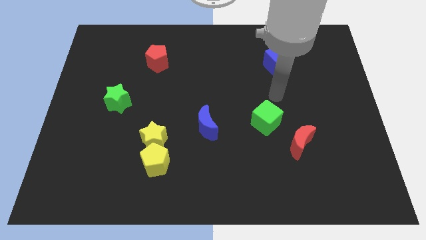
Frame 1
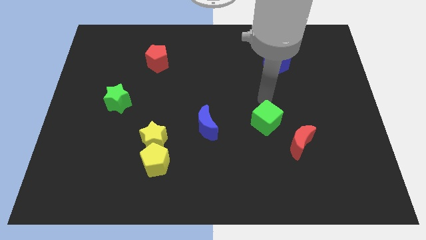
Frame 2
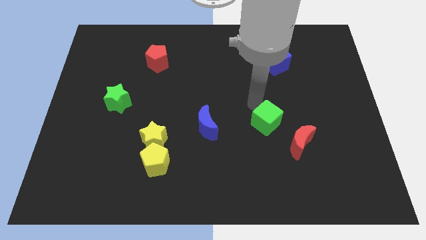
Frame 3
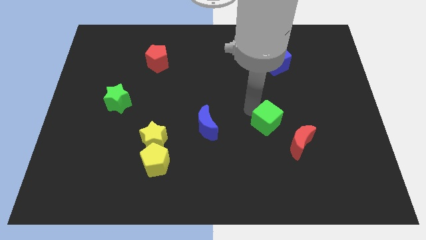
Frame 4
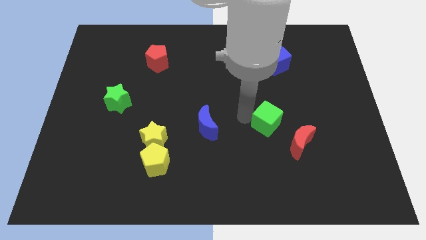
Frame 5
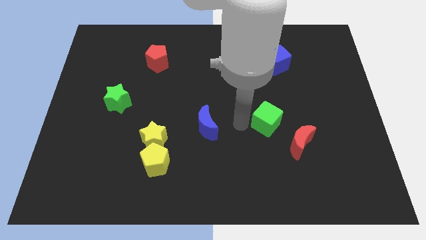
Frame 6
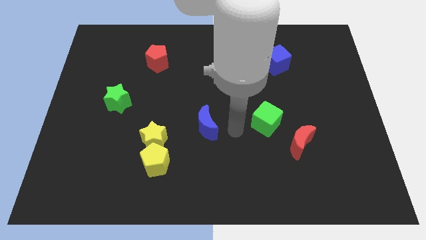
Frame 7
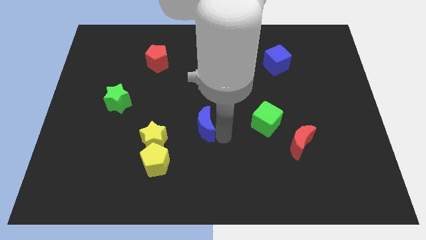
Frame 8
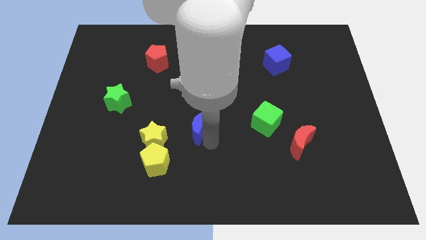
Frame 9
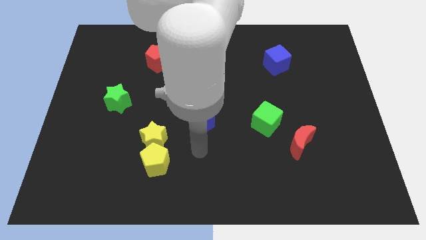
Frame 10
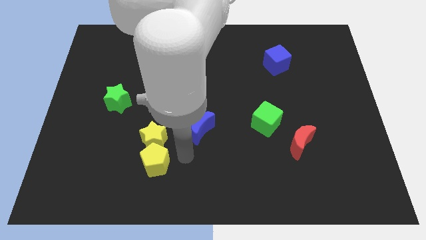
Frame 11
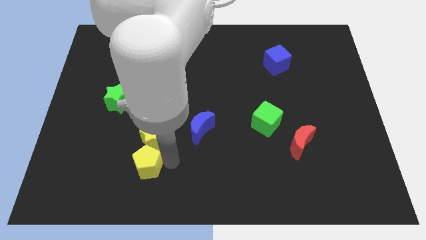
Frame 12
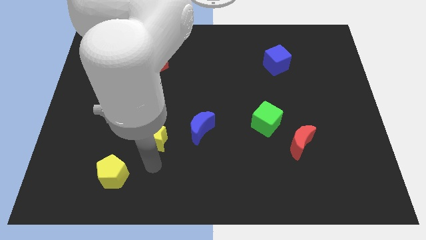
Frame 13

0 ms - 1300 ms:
pull the yellow star apart from the yellow pentagon

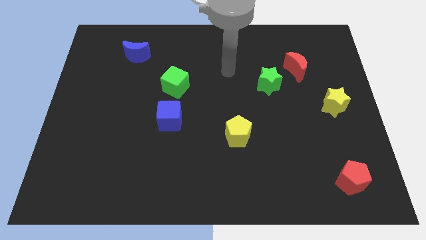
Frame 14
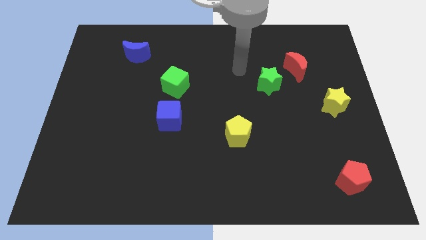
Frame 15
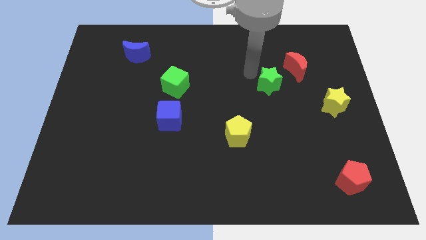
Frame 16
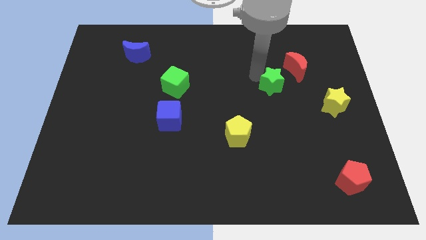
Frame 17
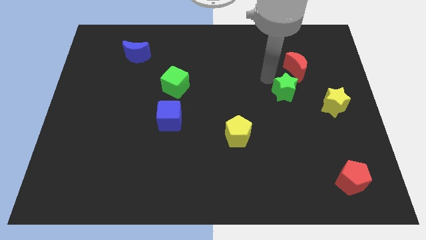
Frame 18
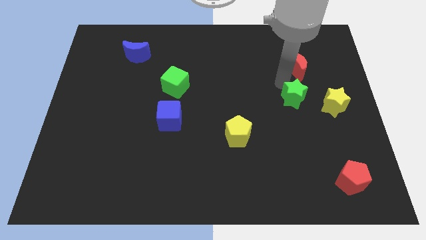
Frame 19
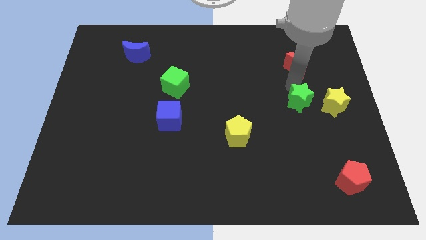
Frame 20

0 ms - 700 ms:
separate the red moon from the green star

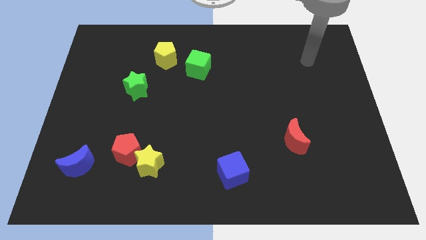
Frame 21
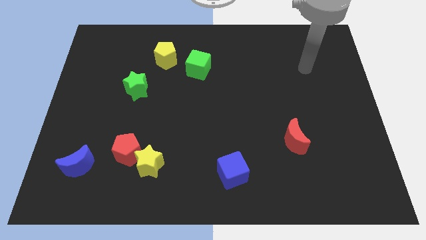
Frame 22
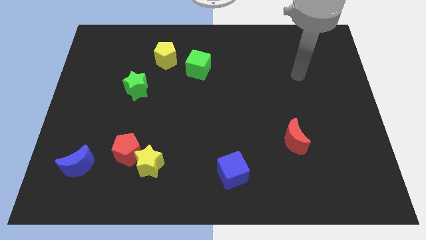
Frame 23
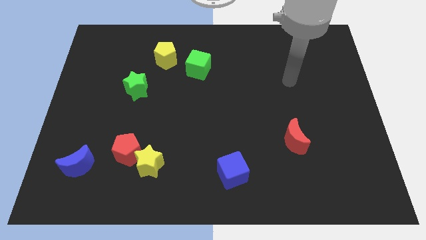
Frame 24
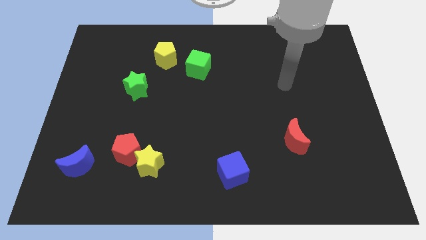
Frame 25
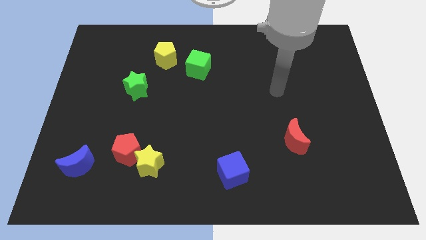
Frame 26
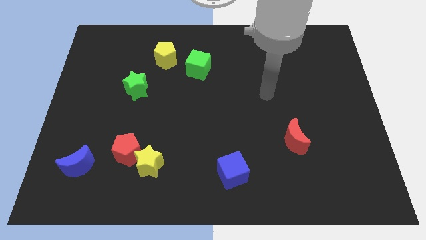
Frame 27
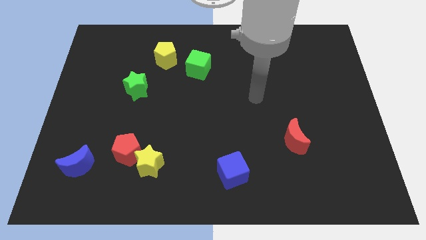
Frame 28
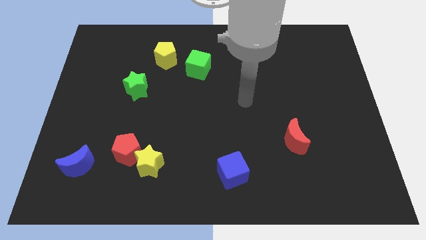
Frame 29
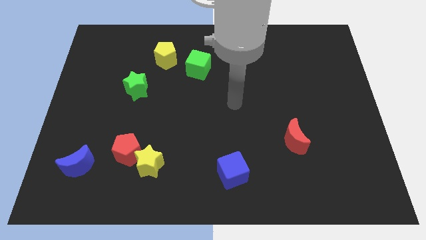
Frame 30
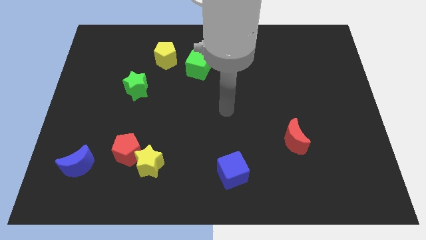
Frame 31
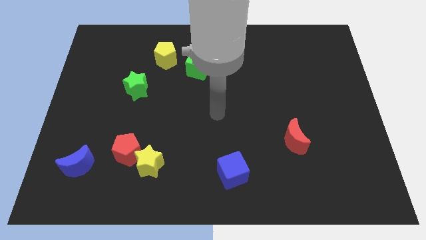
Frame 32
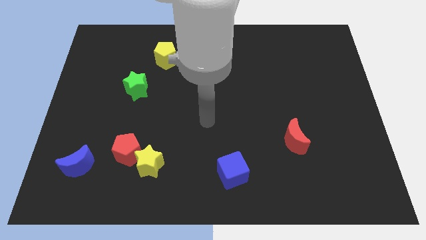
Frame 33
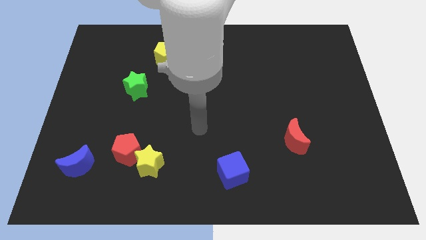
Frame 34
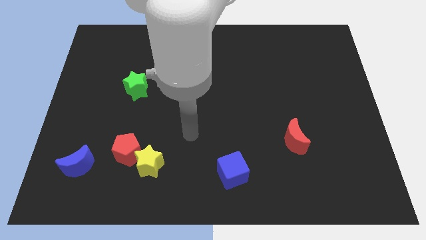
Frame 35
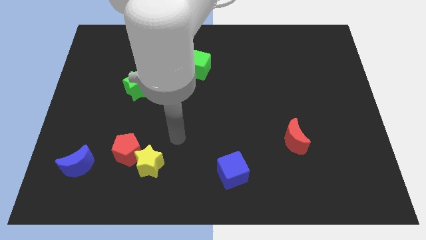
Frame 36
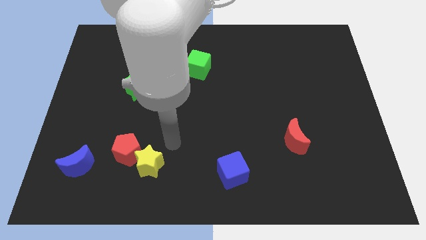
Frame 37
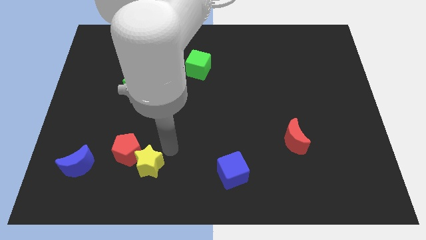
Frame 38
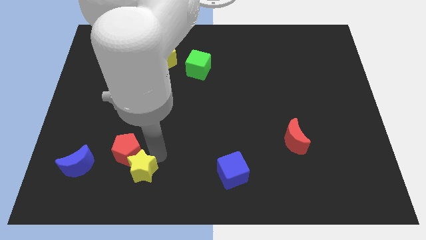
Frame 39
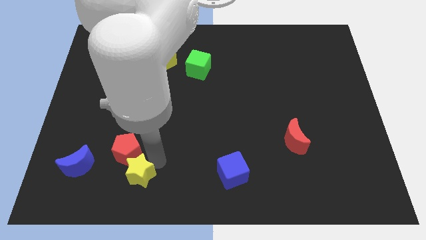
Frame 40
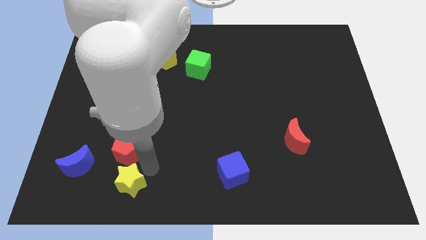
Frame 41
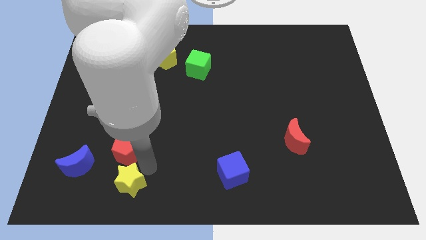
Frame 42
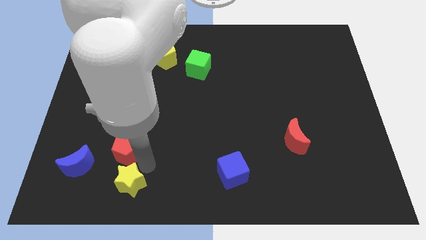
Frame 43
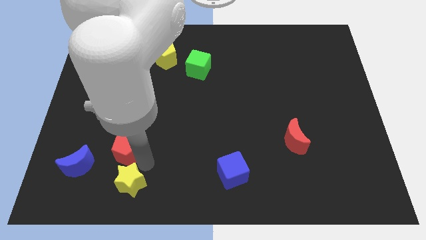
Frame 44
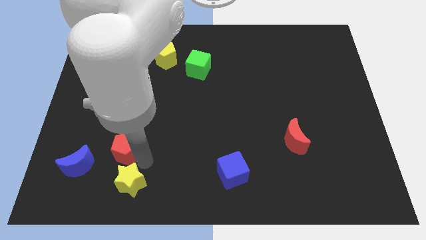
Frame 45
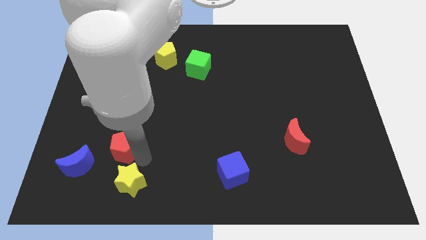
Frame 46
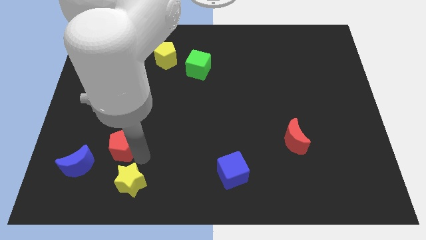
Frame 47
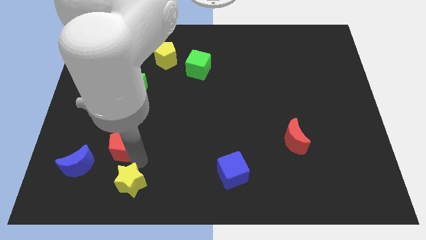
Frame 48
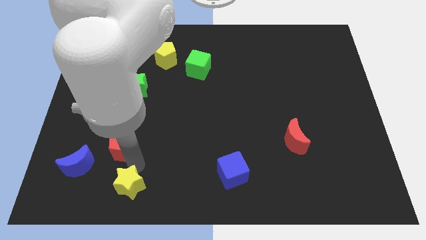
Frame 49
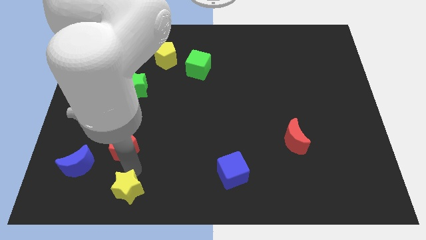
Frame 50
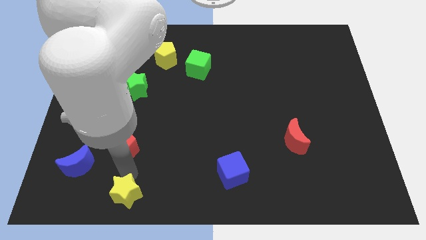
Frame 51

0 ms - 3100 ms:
separate the red pentagon from the yellow star

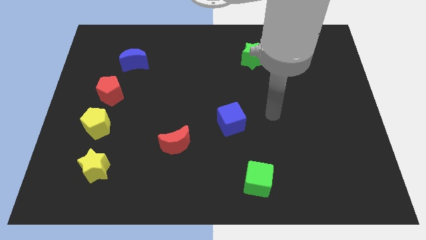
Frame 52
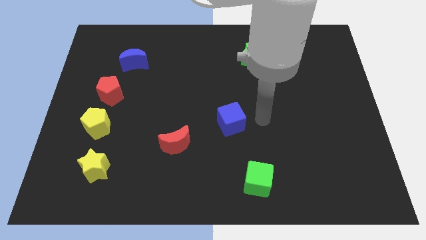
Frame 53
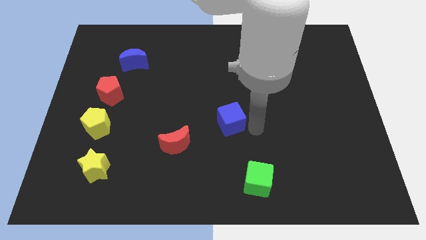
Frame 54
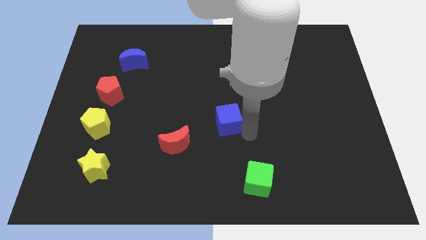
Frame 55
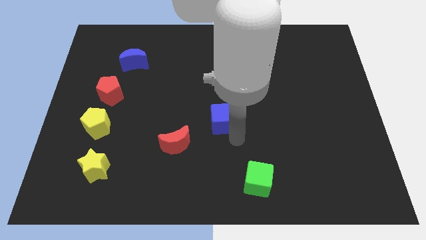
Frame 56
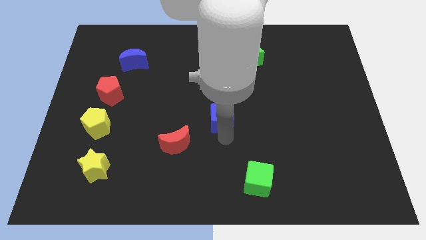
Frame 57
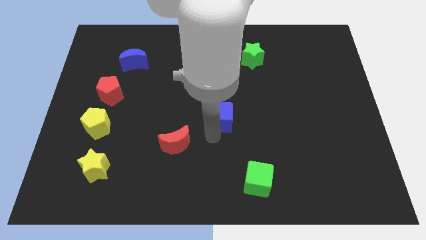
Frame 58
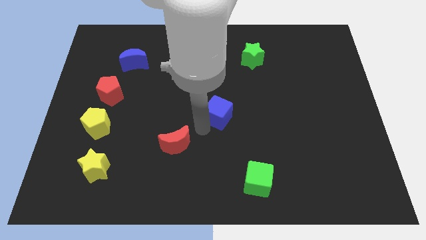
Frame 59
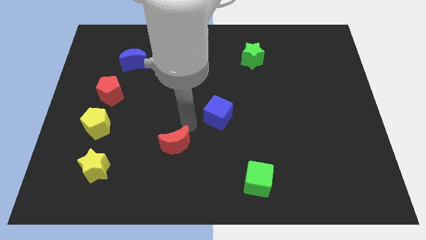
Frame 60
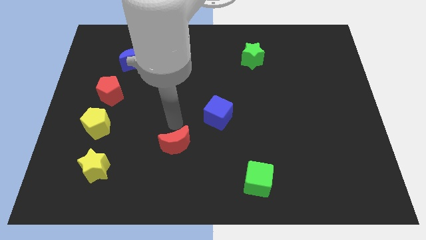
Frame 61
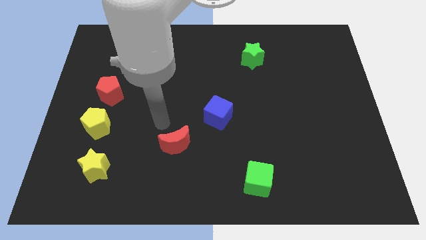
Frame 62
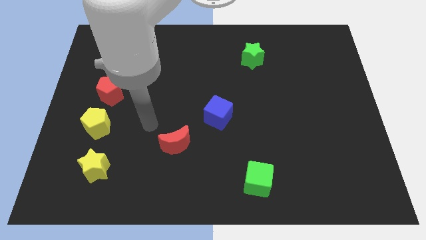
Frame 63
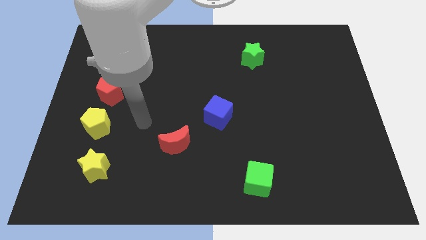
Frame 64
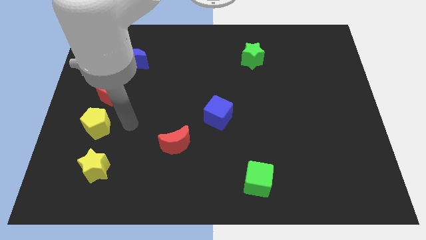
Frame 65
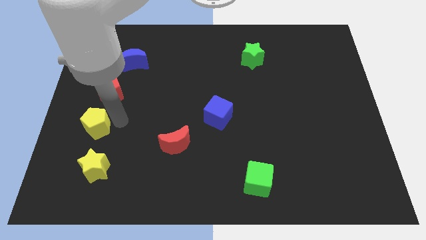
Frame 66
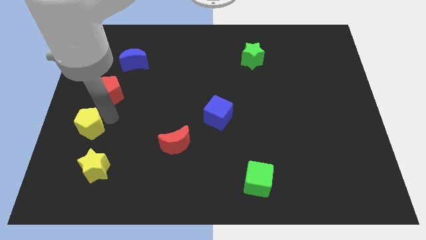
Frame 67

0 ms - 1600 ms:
move the red pentagon away from the yellow pentagon

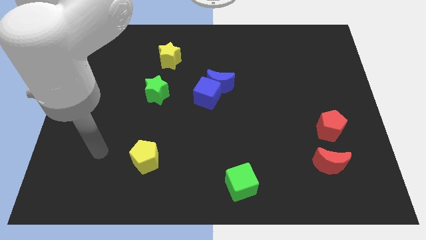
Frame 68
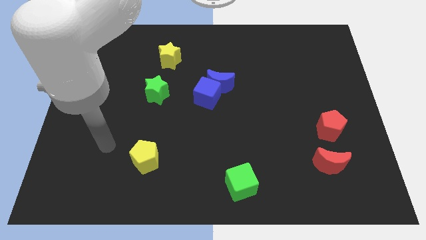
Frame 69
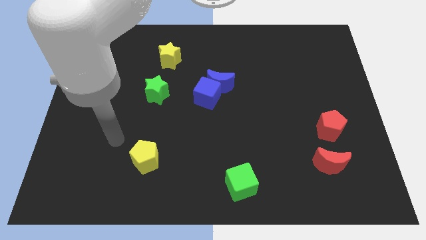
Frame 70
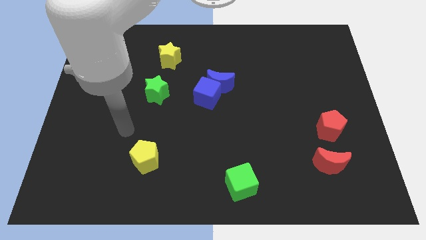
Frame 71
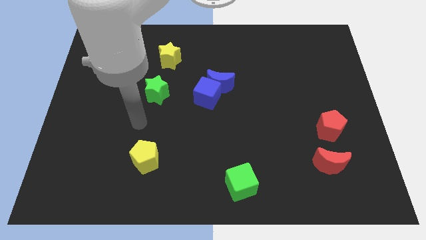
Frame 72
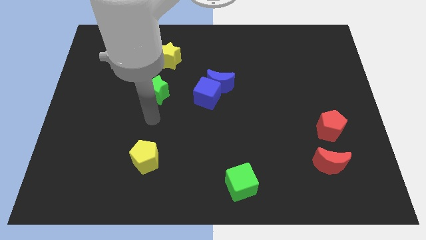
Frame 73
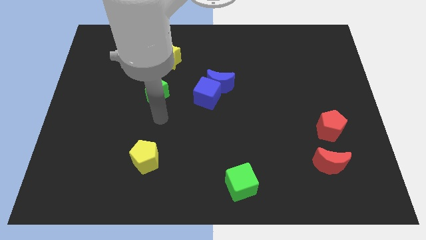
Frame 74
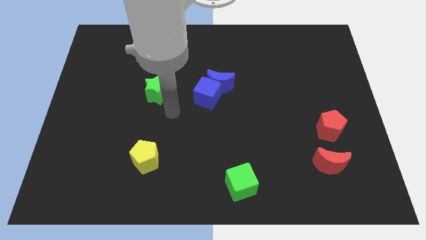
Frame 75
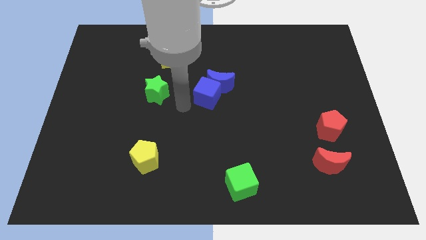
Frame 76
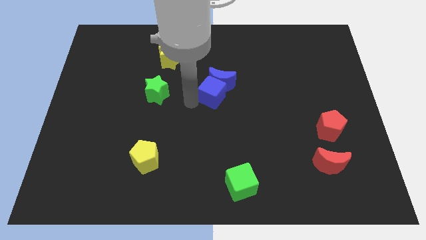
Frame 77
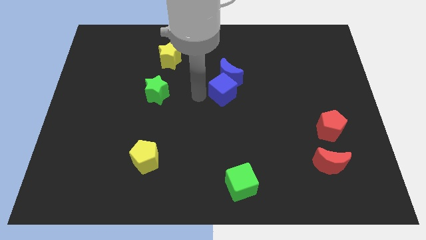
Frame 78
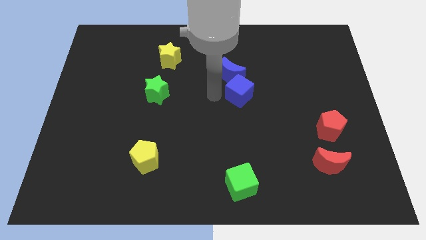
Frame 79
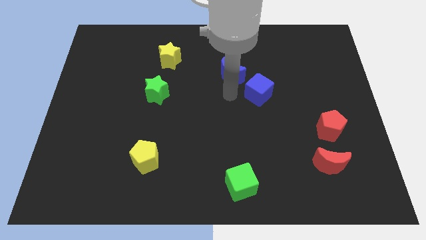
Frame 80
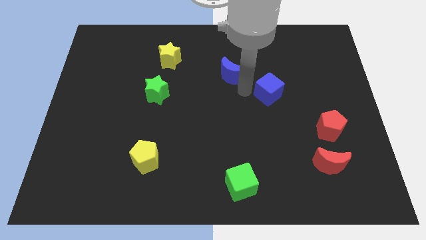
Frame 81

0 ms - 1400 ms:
pull the blue moon apart from the blue cube

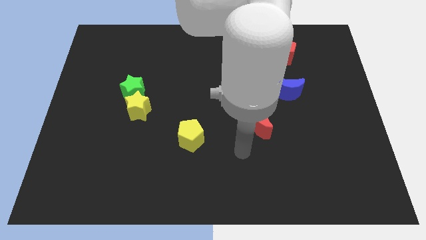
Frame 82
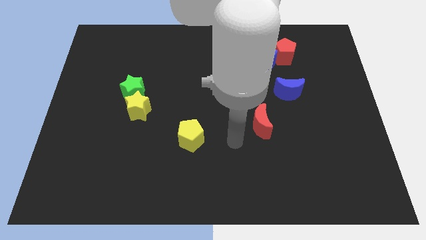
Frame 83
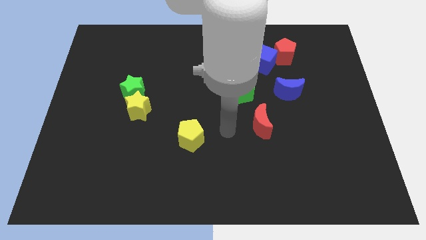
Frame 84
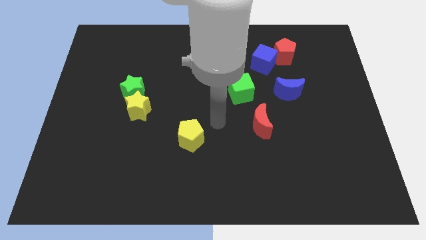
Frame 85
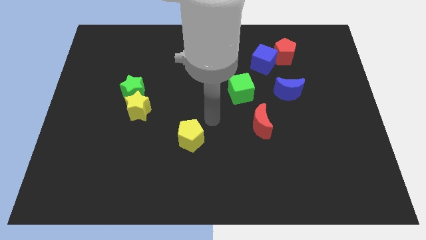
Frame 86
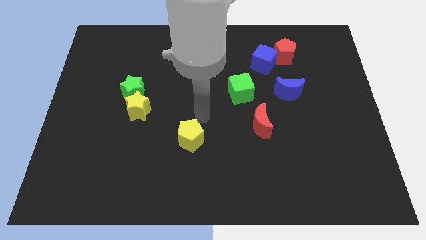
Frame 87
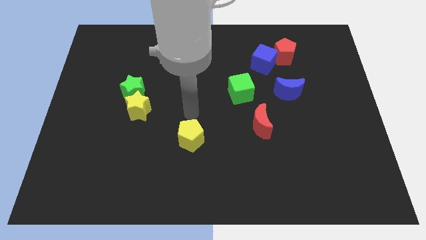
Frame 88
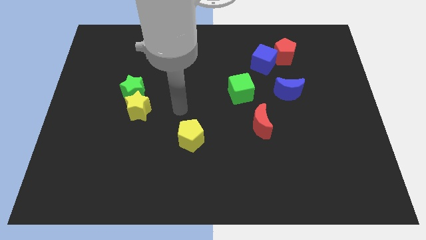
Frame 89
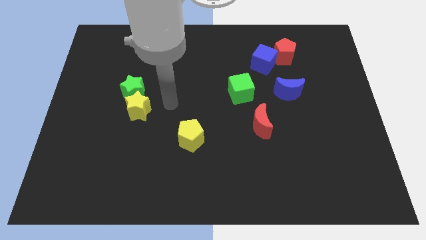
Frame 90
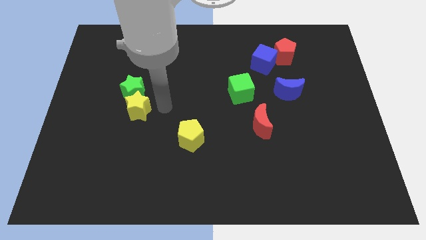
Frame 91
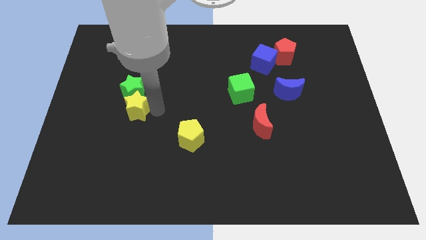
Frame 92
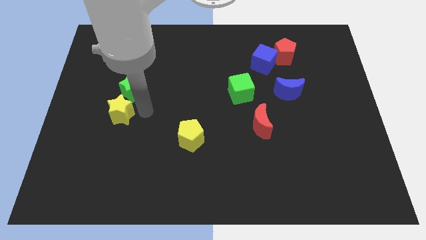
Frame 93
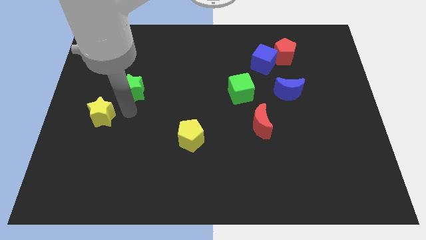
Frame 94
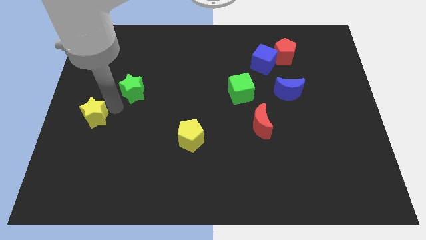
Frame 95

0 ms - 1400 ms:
pull the green star apart from the yellow star
